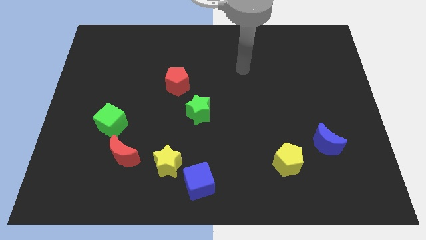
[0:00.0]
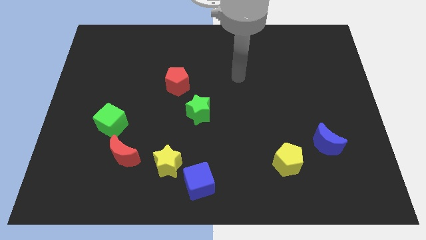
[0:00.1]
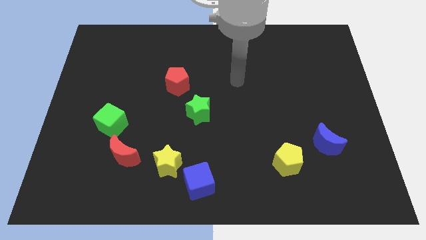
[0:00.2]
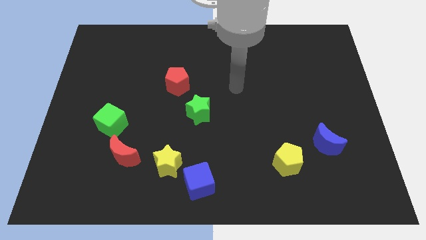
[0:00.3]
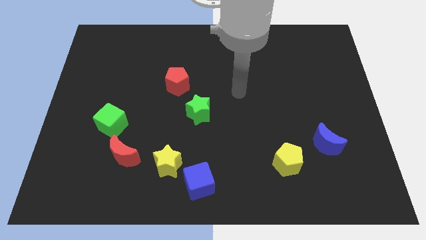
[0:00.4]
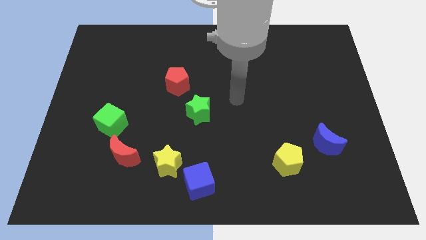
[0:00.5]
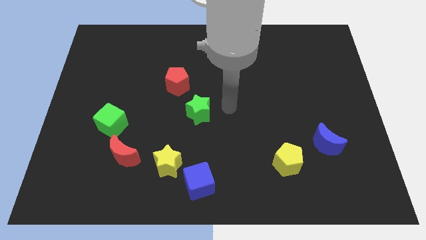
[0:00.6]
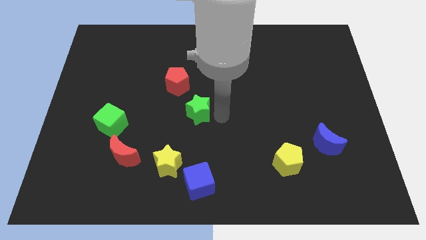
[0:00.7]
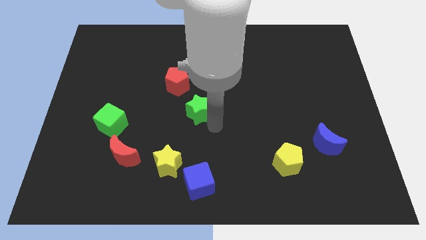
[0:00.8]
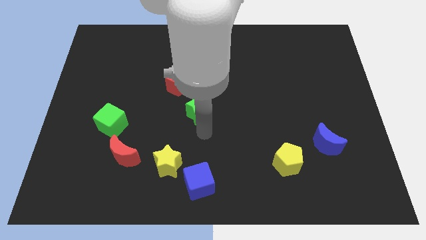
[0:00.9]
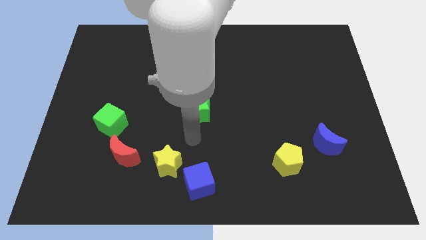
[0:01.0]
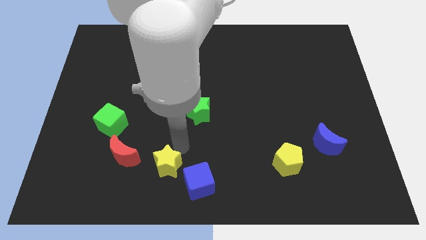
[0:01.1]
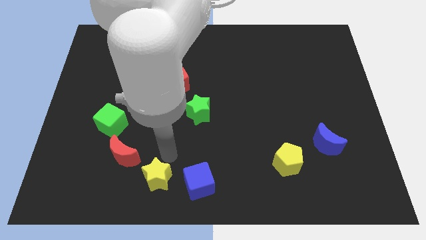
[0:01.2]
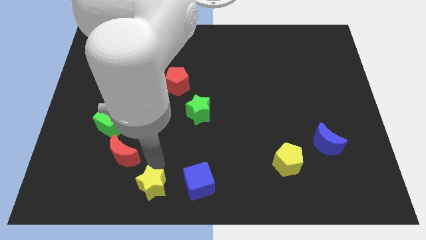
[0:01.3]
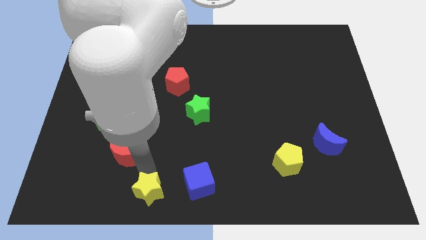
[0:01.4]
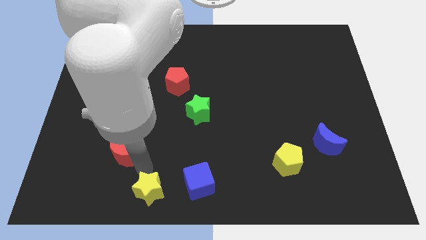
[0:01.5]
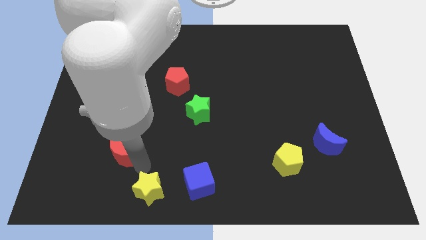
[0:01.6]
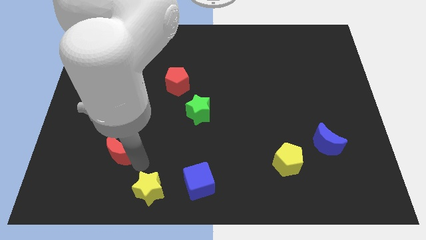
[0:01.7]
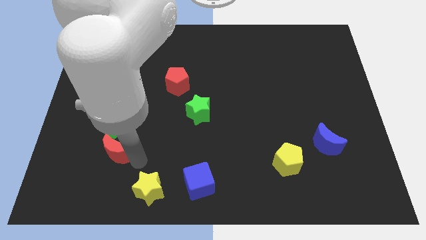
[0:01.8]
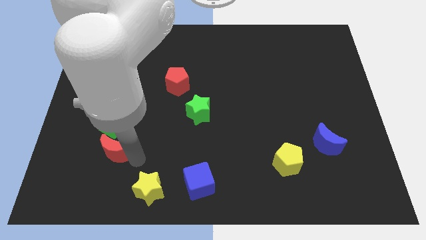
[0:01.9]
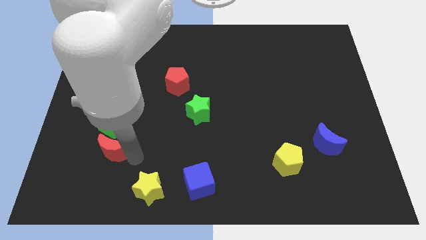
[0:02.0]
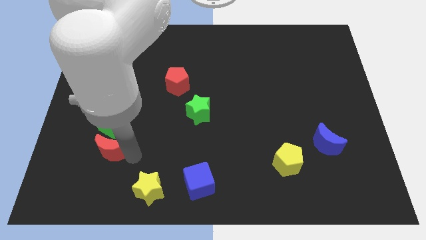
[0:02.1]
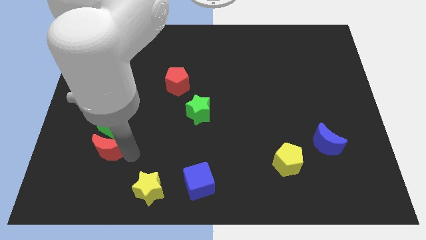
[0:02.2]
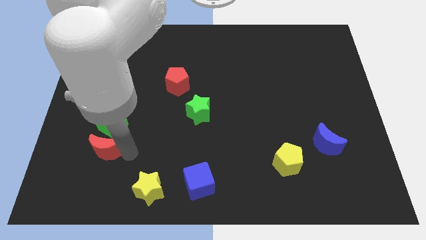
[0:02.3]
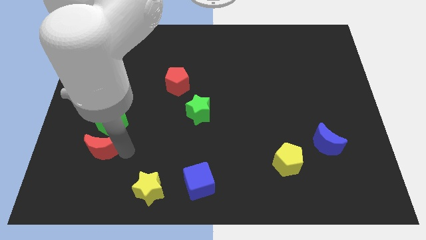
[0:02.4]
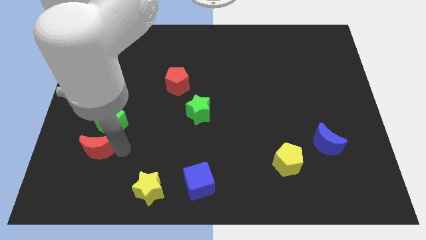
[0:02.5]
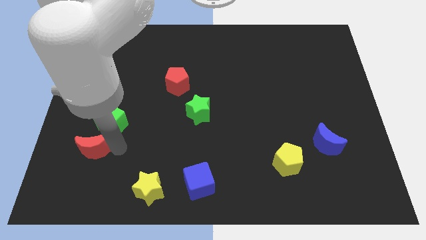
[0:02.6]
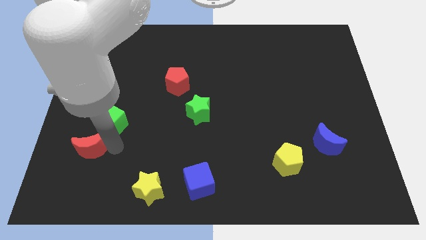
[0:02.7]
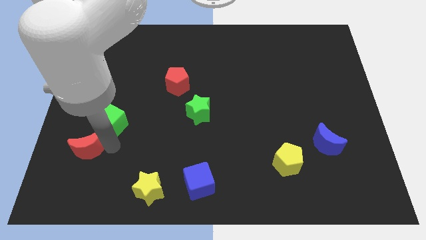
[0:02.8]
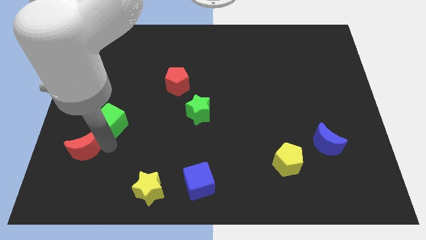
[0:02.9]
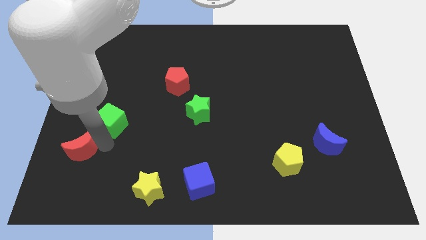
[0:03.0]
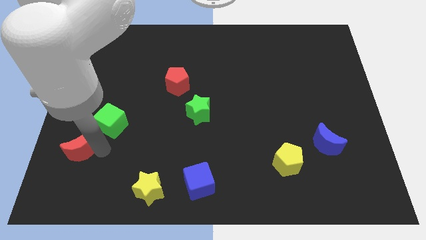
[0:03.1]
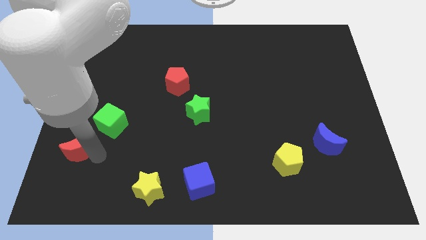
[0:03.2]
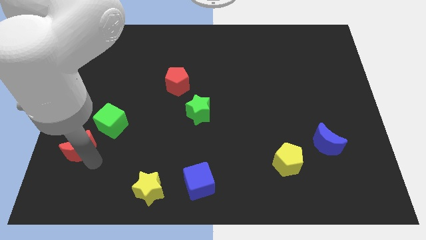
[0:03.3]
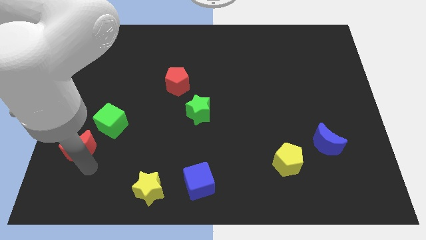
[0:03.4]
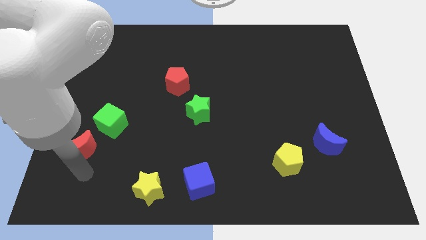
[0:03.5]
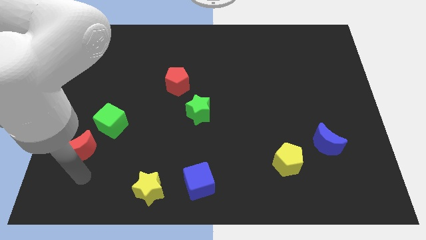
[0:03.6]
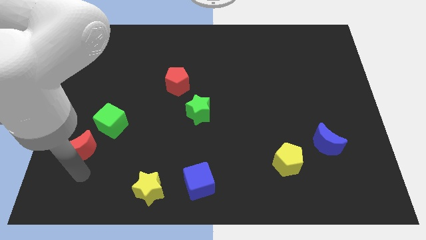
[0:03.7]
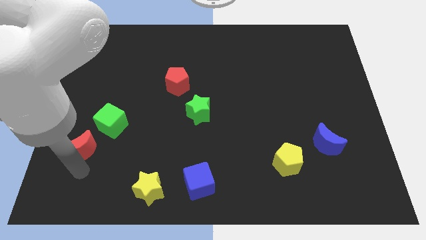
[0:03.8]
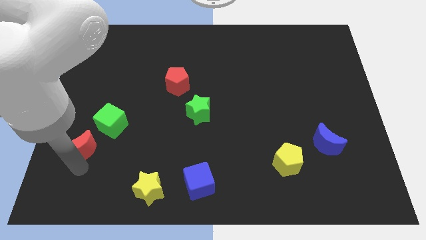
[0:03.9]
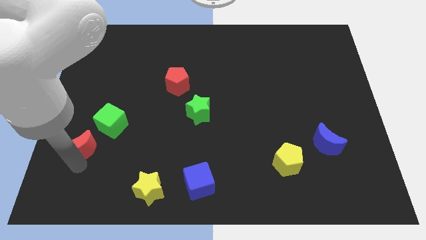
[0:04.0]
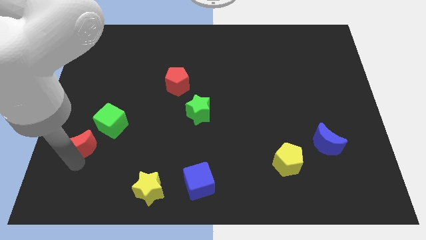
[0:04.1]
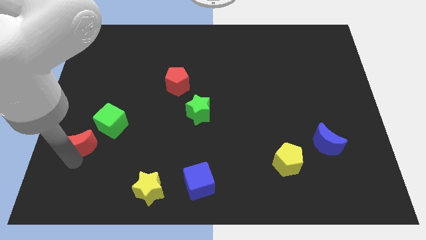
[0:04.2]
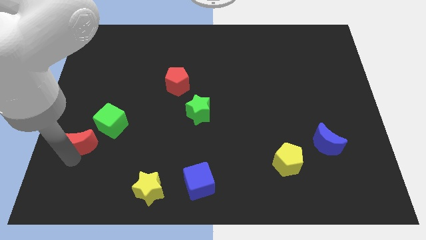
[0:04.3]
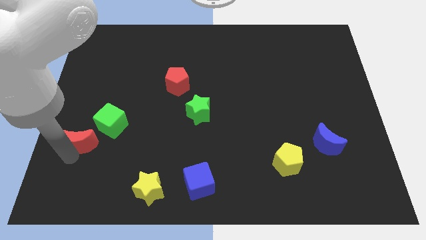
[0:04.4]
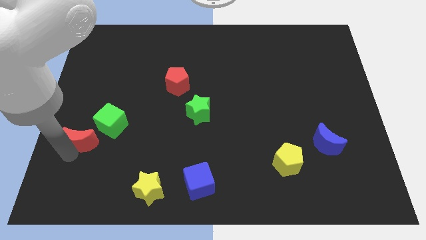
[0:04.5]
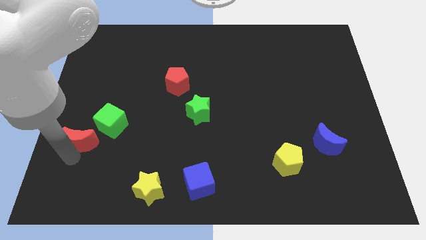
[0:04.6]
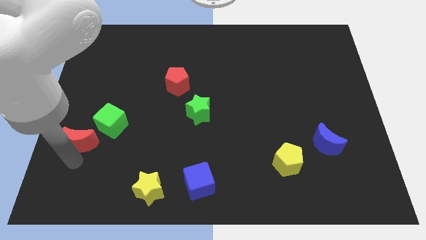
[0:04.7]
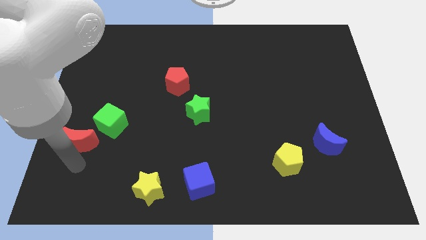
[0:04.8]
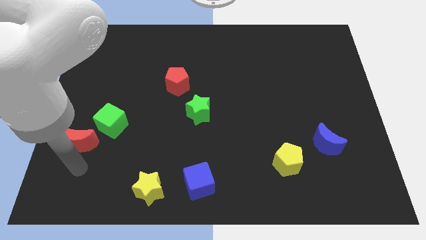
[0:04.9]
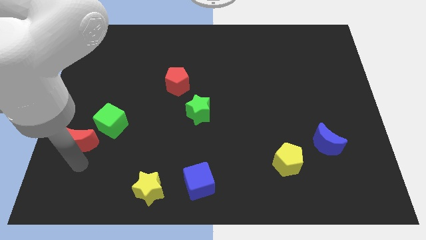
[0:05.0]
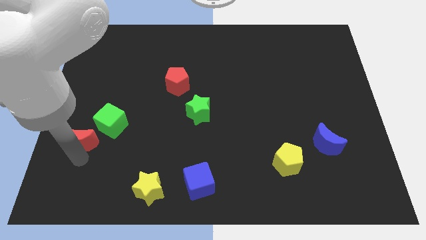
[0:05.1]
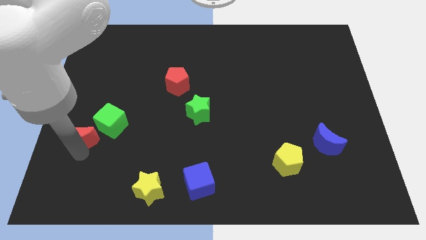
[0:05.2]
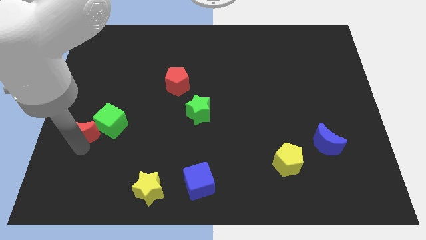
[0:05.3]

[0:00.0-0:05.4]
push the red moon to the center left

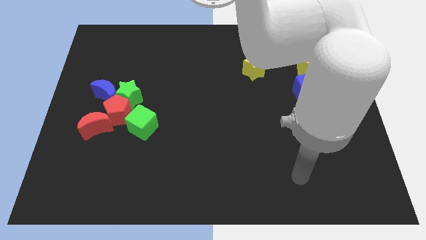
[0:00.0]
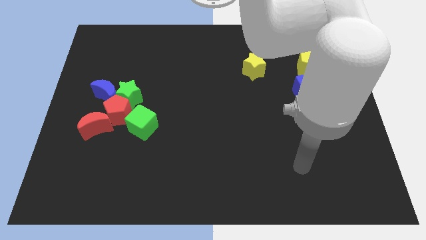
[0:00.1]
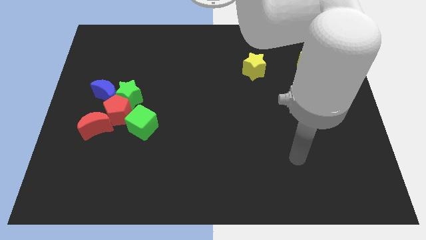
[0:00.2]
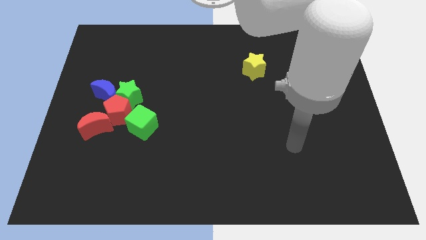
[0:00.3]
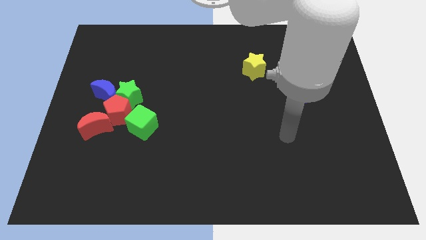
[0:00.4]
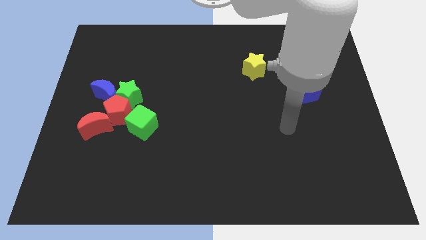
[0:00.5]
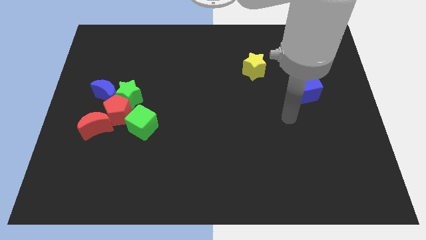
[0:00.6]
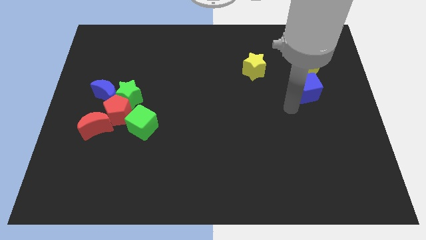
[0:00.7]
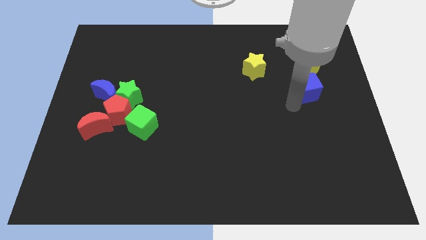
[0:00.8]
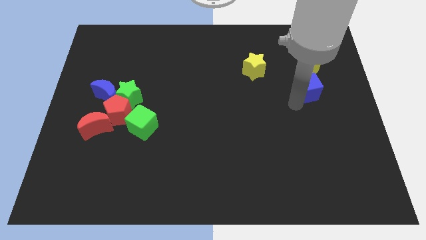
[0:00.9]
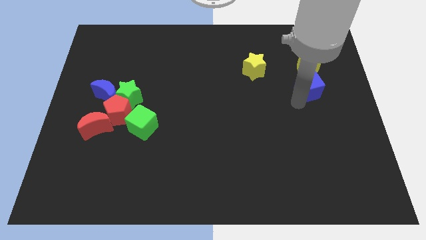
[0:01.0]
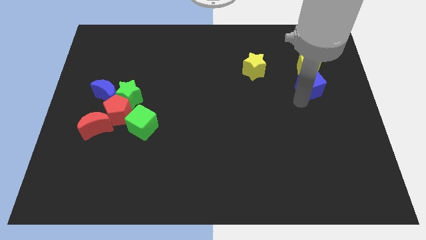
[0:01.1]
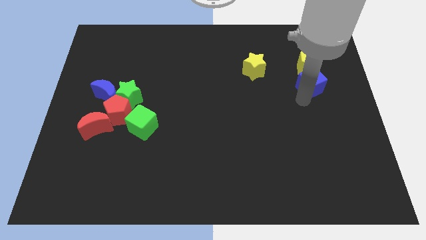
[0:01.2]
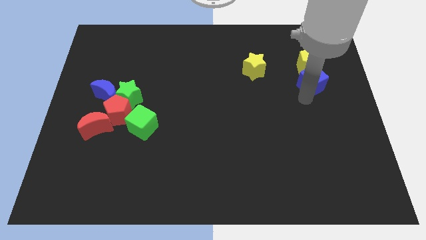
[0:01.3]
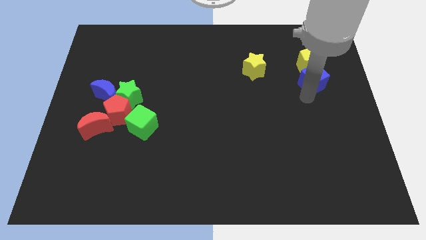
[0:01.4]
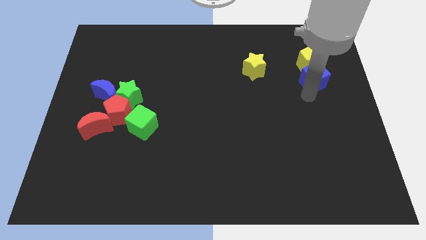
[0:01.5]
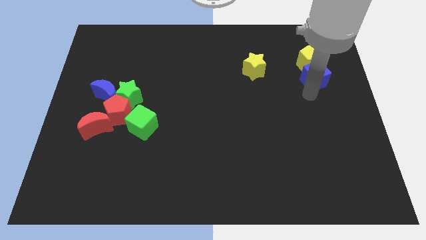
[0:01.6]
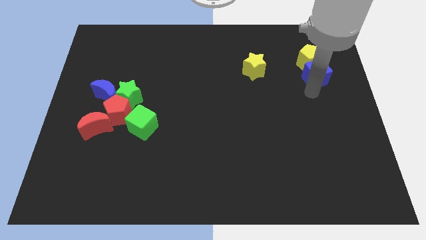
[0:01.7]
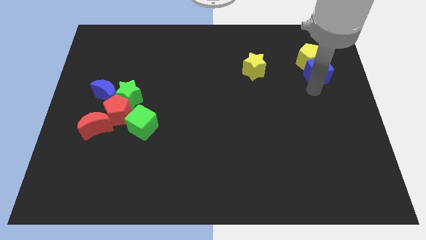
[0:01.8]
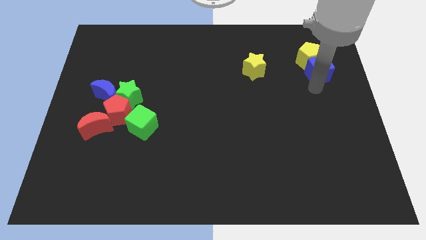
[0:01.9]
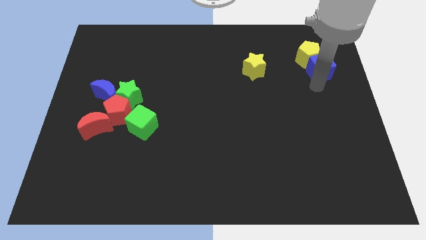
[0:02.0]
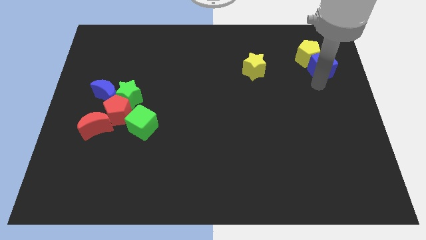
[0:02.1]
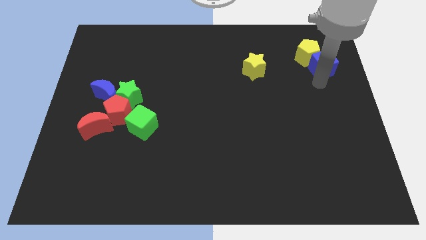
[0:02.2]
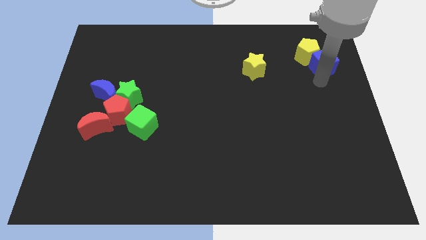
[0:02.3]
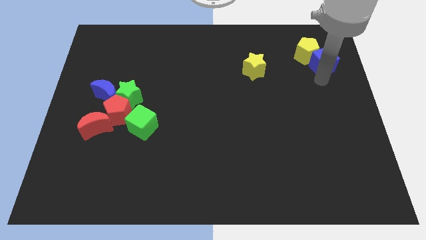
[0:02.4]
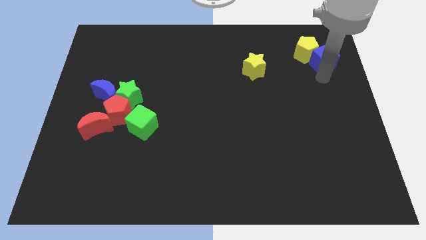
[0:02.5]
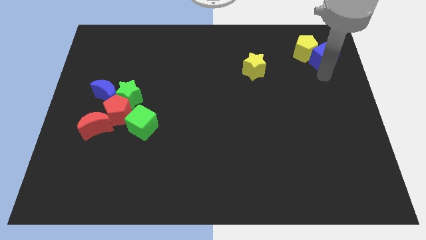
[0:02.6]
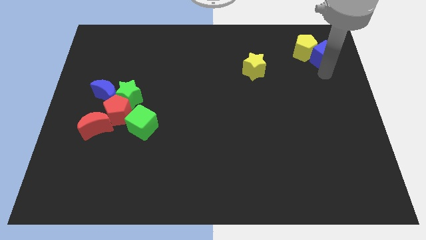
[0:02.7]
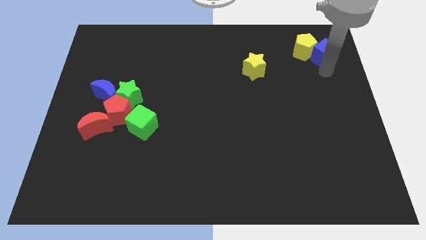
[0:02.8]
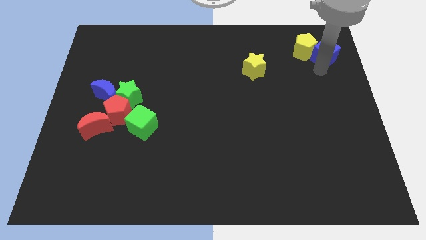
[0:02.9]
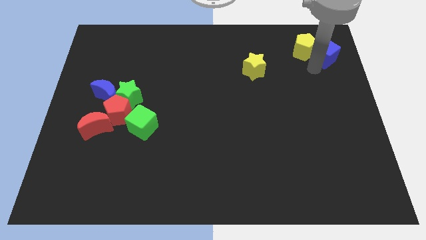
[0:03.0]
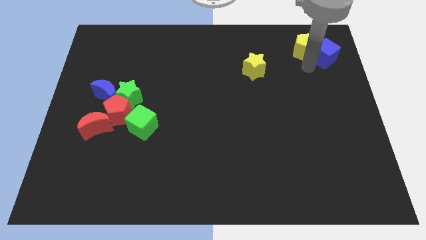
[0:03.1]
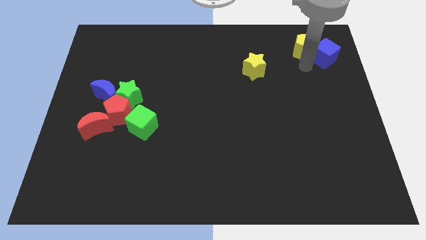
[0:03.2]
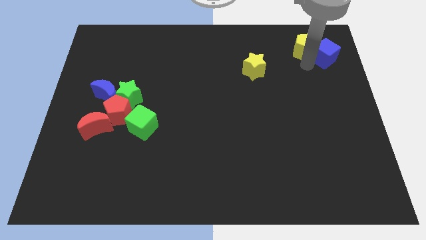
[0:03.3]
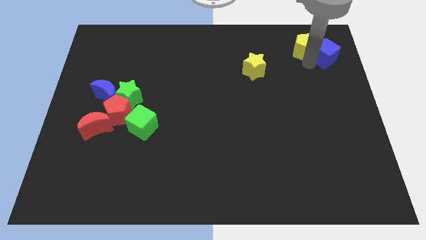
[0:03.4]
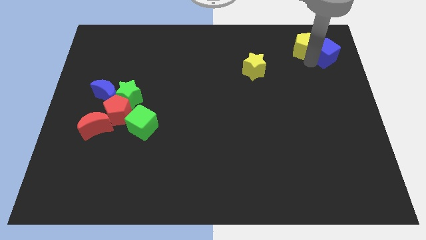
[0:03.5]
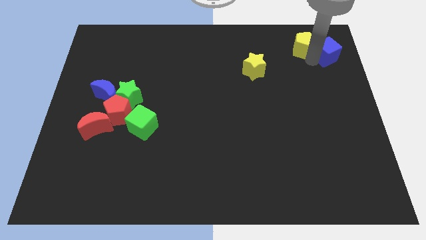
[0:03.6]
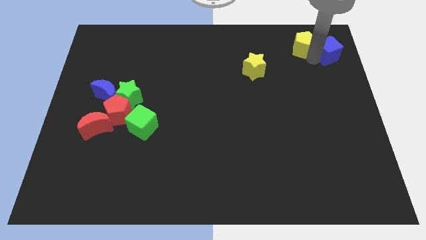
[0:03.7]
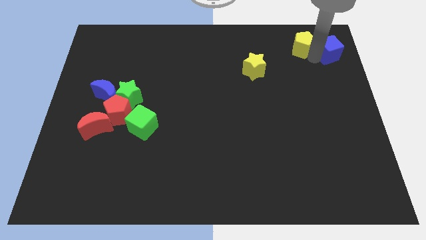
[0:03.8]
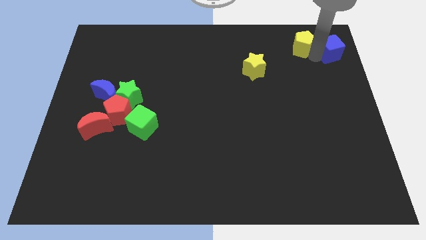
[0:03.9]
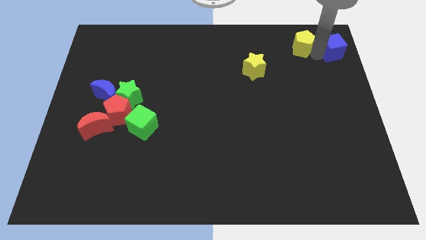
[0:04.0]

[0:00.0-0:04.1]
move the blue cube to the upper right corner
